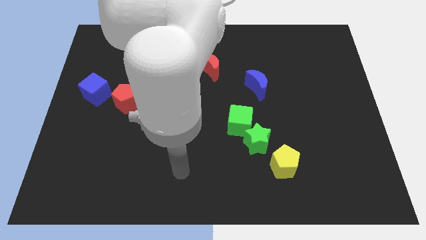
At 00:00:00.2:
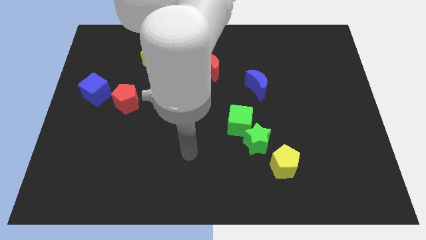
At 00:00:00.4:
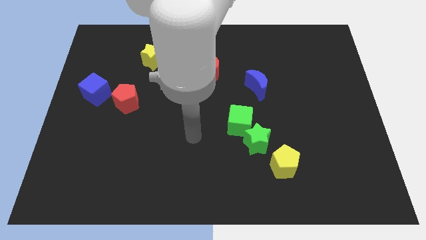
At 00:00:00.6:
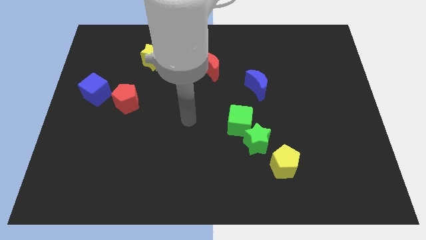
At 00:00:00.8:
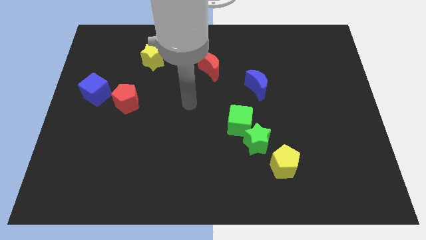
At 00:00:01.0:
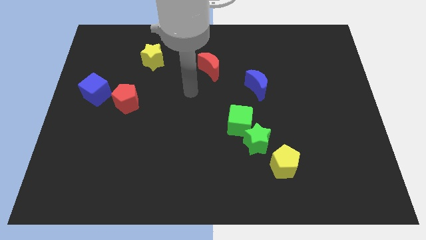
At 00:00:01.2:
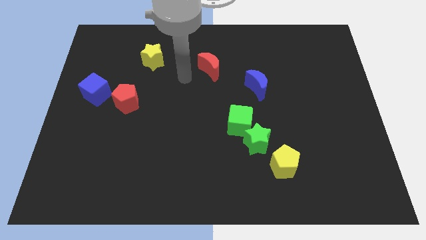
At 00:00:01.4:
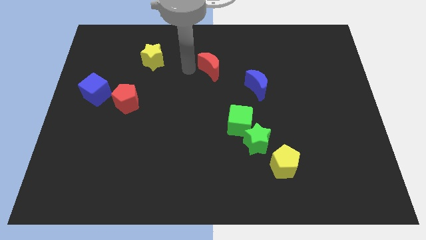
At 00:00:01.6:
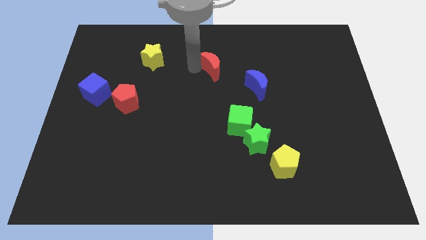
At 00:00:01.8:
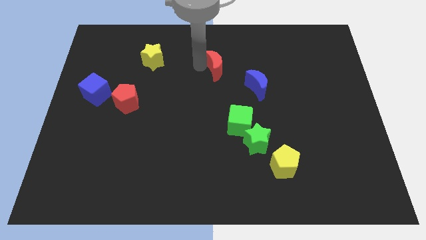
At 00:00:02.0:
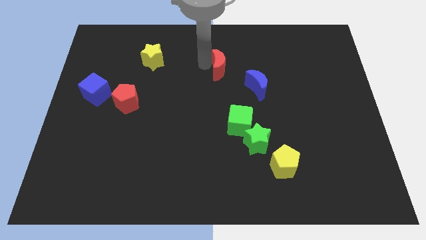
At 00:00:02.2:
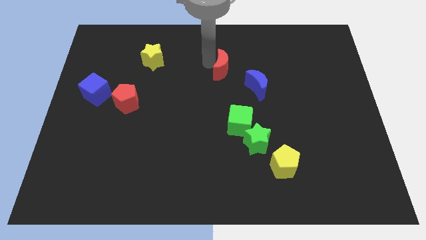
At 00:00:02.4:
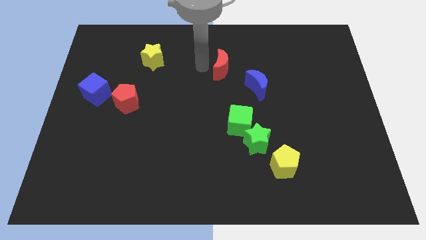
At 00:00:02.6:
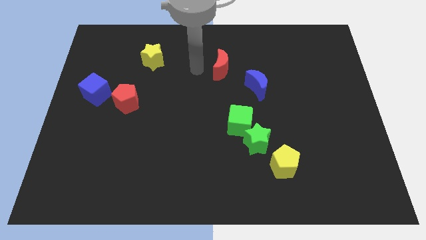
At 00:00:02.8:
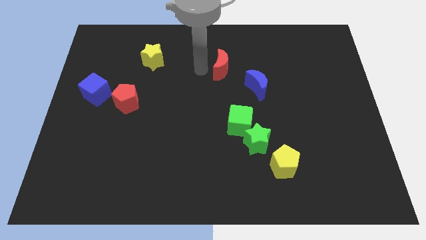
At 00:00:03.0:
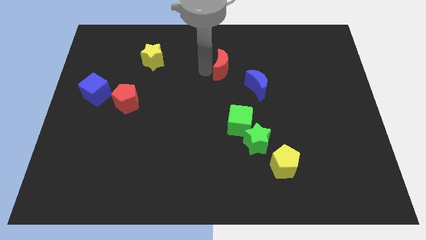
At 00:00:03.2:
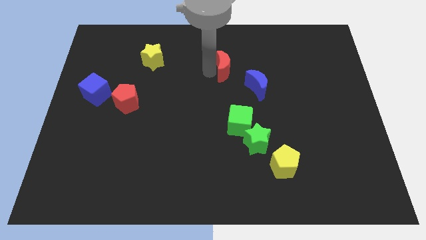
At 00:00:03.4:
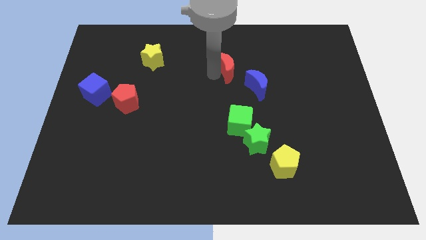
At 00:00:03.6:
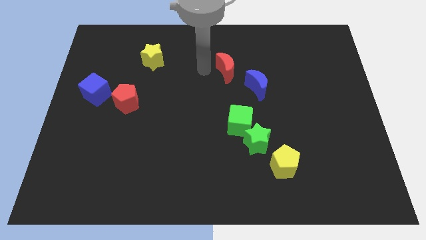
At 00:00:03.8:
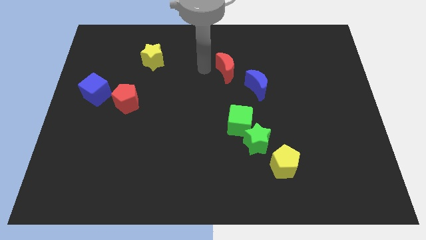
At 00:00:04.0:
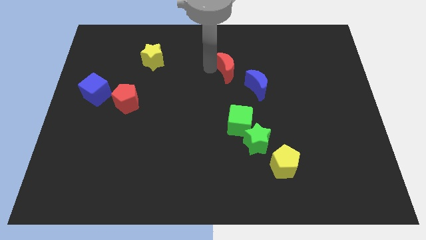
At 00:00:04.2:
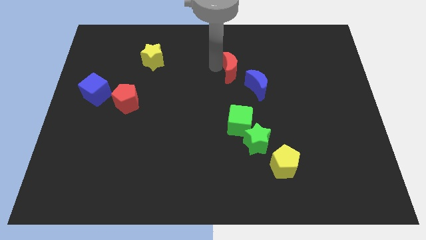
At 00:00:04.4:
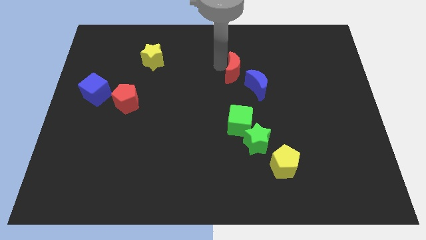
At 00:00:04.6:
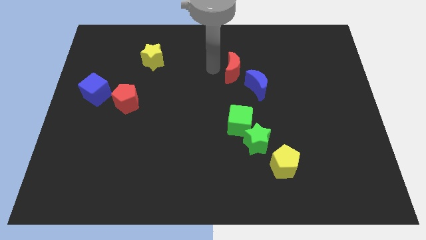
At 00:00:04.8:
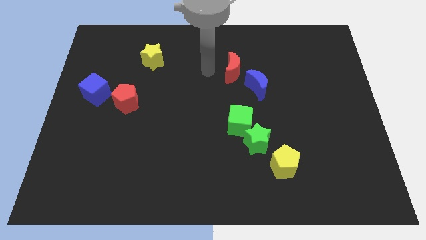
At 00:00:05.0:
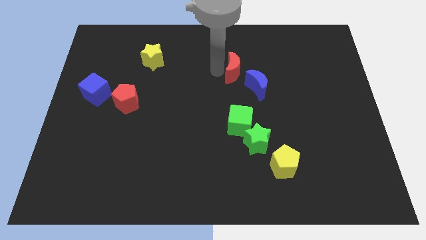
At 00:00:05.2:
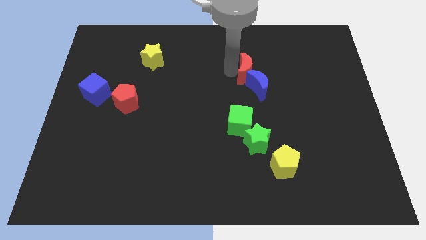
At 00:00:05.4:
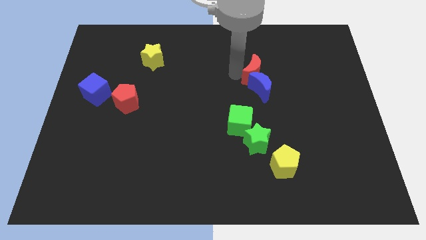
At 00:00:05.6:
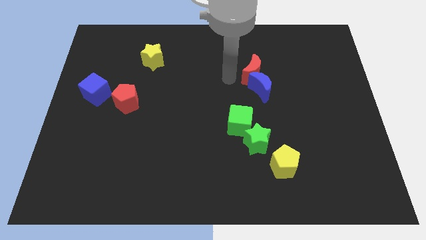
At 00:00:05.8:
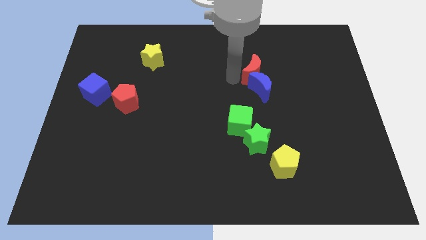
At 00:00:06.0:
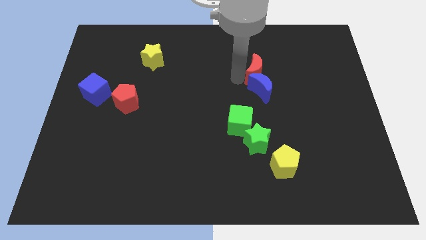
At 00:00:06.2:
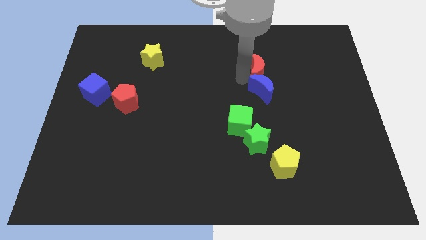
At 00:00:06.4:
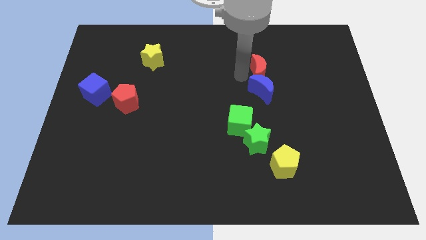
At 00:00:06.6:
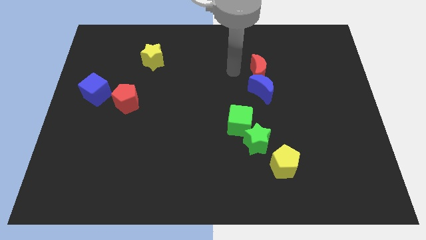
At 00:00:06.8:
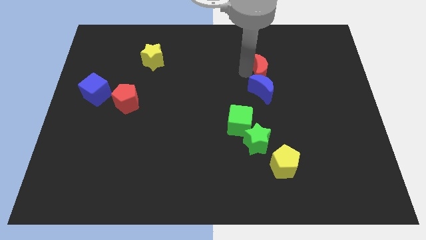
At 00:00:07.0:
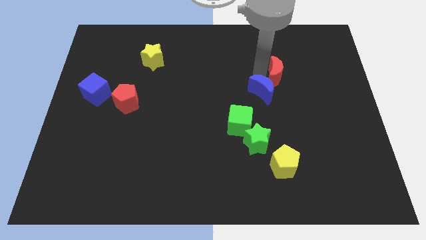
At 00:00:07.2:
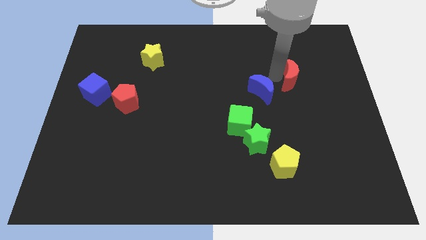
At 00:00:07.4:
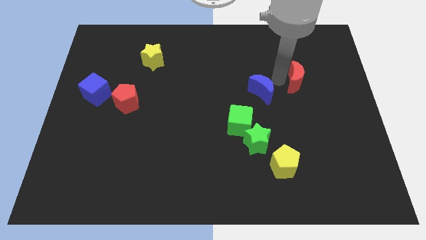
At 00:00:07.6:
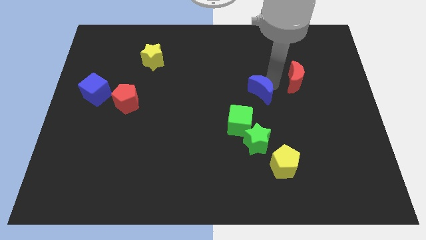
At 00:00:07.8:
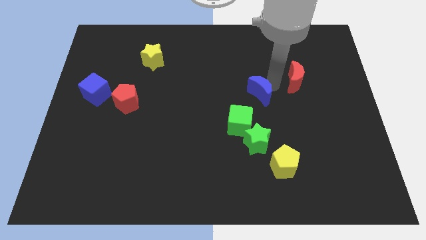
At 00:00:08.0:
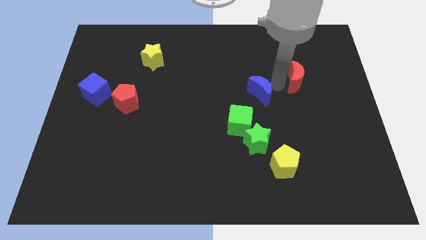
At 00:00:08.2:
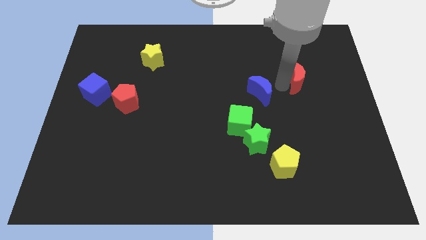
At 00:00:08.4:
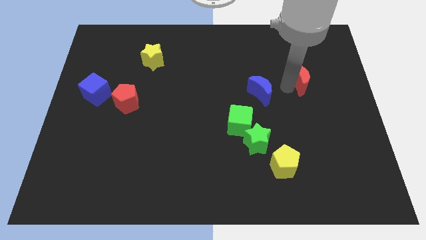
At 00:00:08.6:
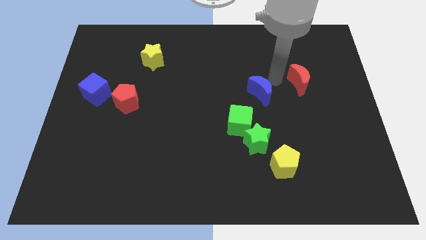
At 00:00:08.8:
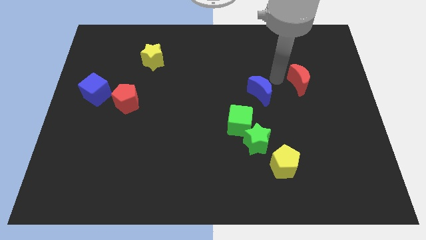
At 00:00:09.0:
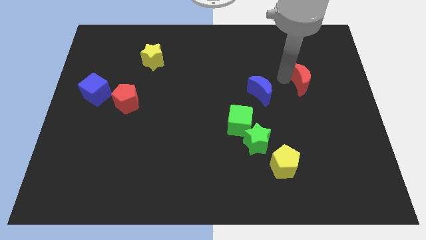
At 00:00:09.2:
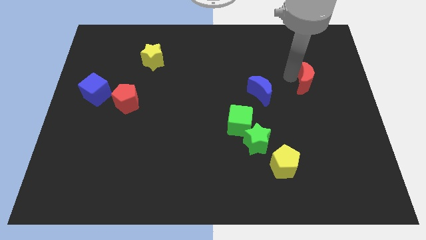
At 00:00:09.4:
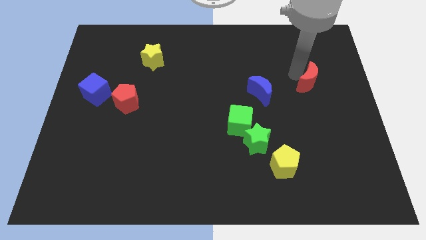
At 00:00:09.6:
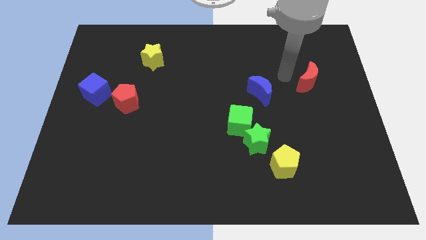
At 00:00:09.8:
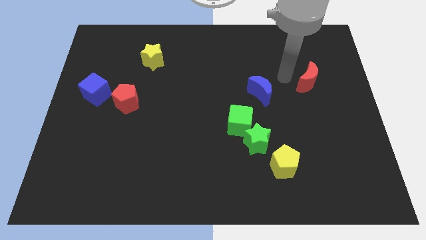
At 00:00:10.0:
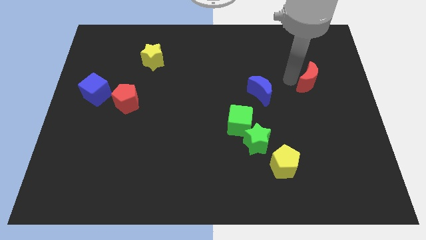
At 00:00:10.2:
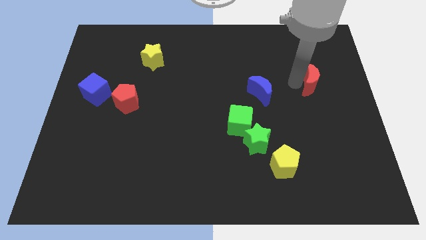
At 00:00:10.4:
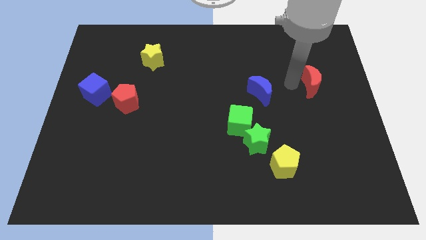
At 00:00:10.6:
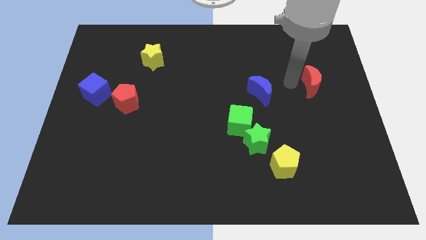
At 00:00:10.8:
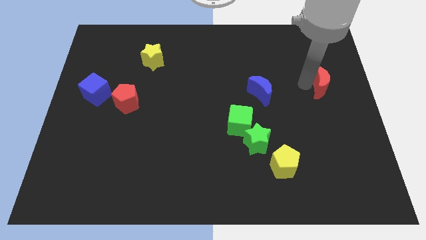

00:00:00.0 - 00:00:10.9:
slide the red moon to the center right
